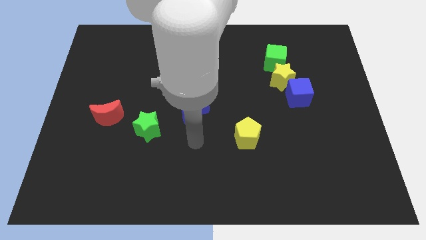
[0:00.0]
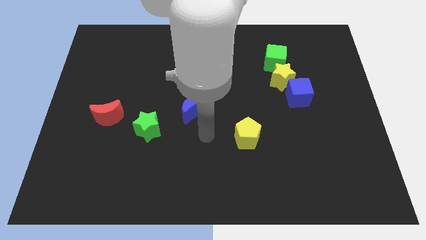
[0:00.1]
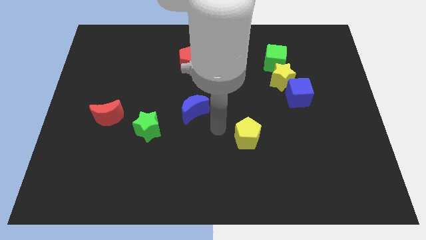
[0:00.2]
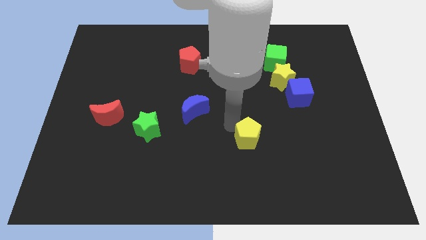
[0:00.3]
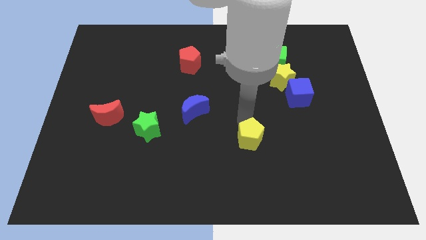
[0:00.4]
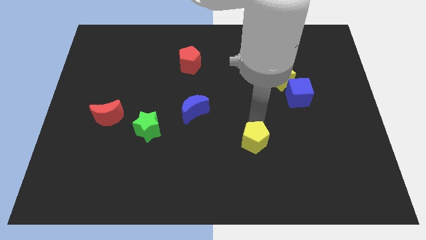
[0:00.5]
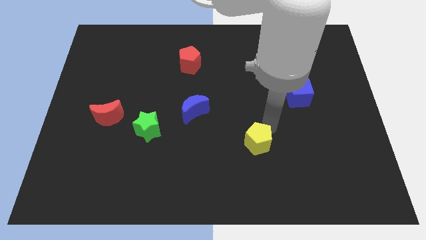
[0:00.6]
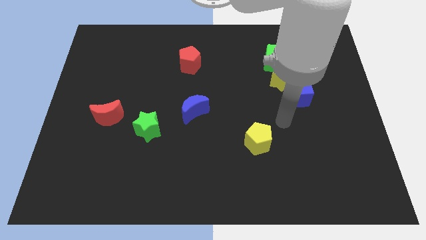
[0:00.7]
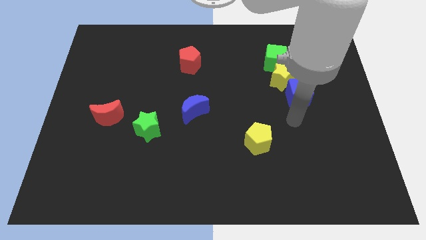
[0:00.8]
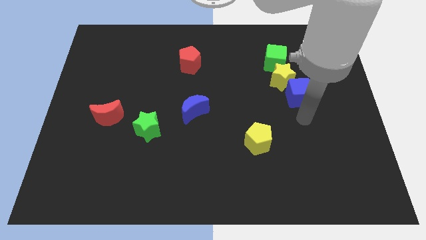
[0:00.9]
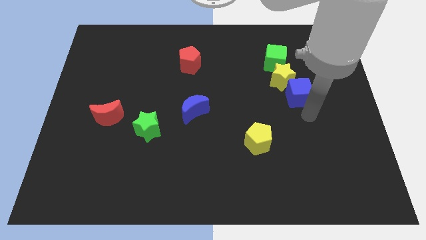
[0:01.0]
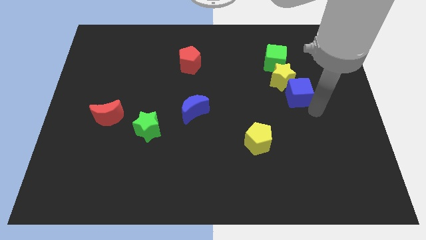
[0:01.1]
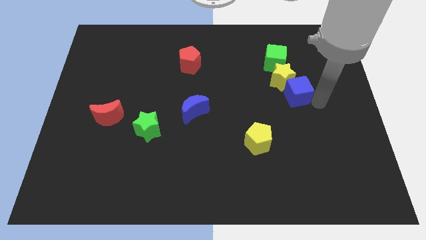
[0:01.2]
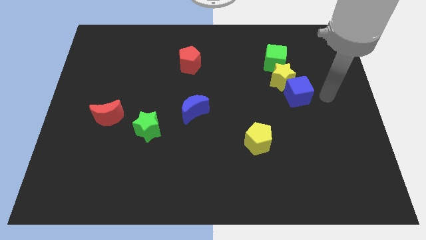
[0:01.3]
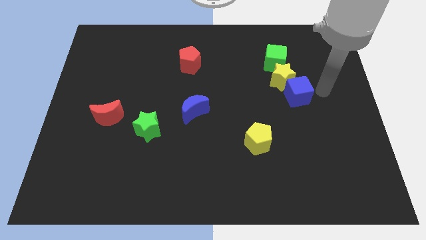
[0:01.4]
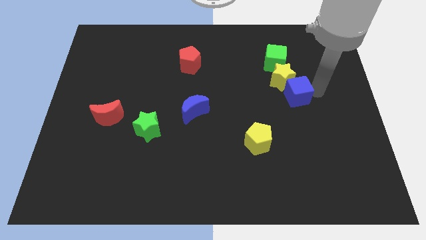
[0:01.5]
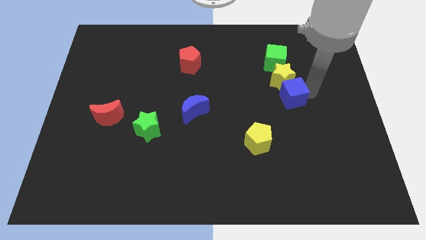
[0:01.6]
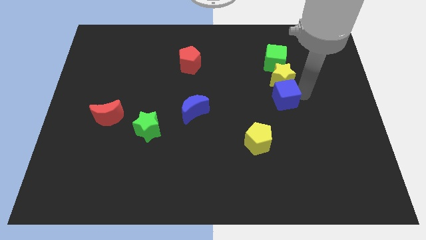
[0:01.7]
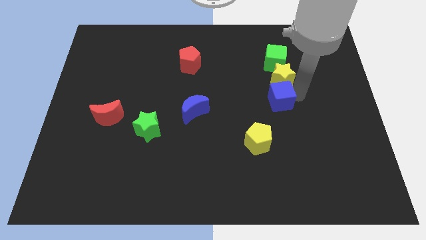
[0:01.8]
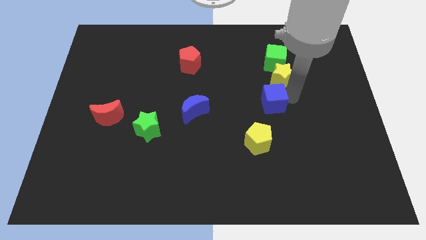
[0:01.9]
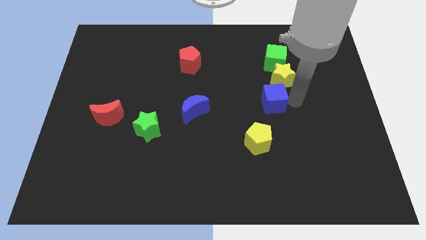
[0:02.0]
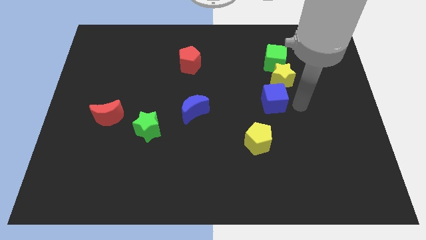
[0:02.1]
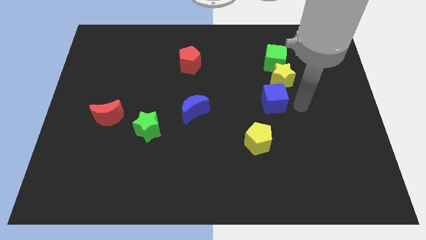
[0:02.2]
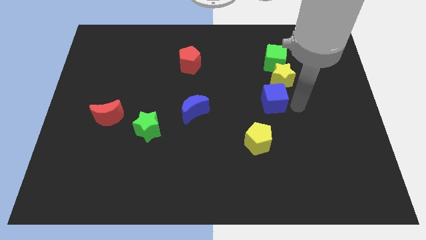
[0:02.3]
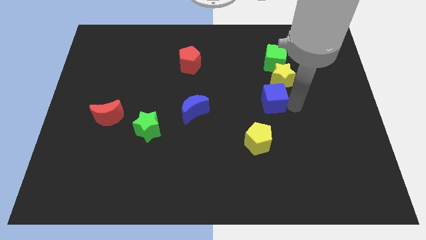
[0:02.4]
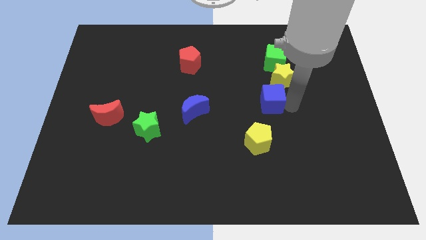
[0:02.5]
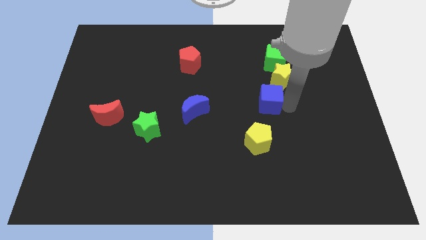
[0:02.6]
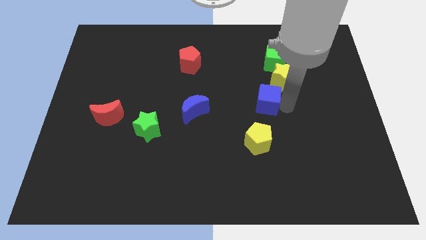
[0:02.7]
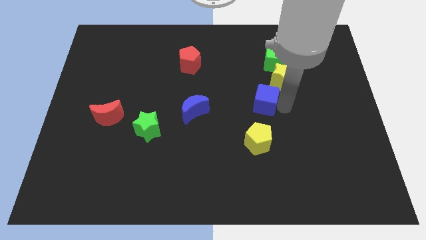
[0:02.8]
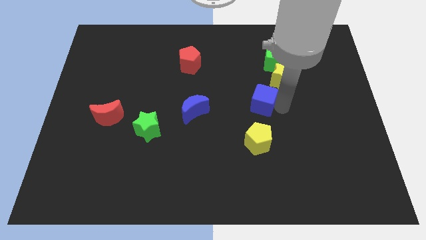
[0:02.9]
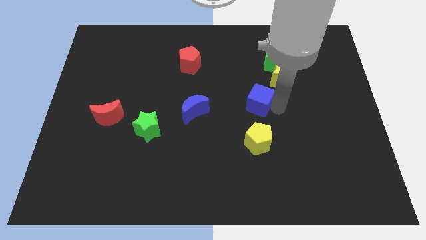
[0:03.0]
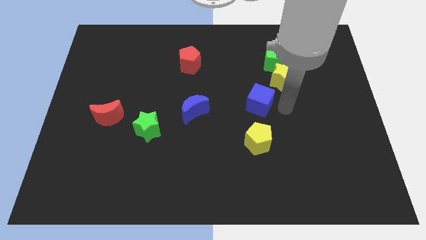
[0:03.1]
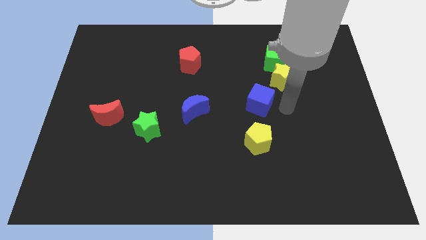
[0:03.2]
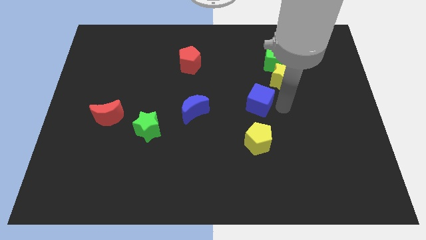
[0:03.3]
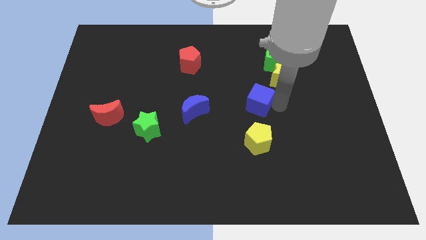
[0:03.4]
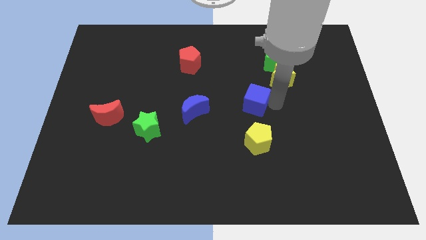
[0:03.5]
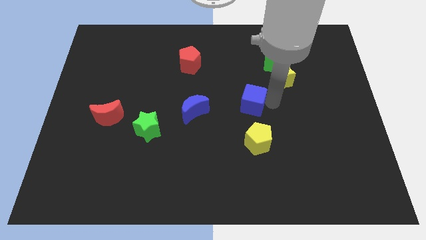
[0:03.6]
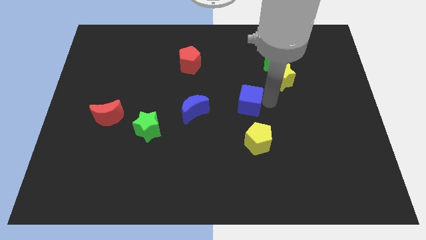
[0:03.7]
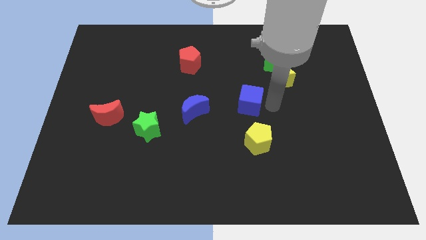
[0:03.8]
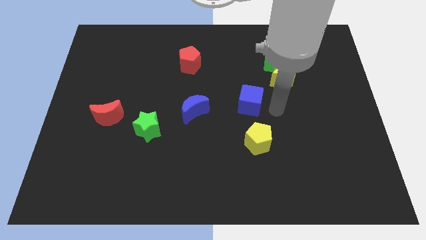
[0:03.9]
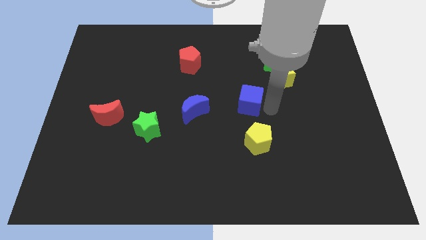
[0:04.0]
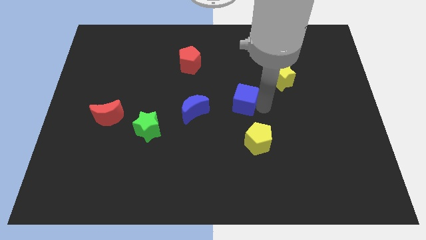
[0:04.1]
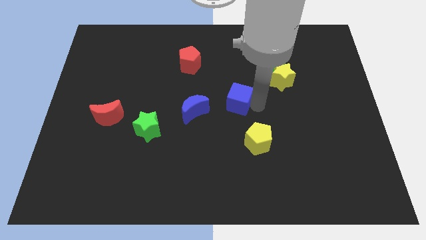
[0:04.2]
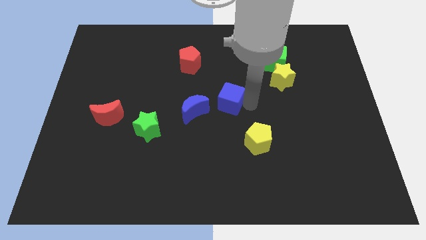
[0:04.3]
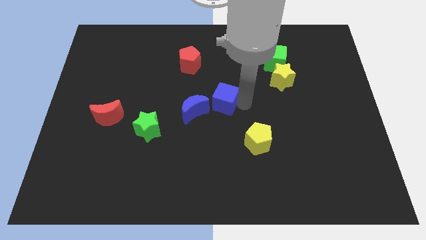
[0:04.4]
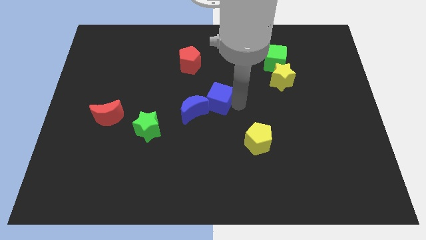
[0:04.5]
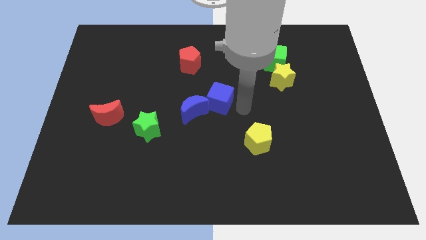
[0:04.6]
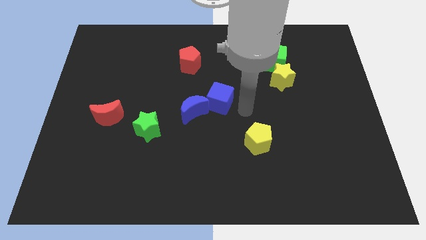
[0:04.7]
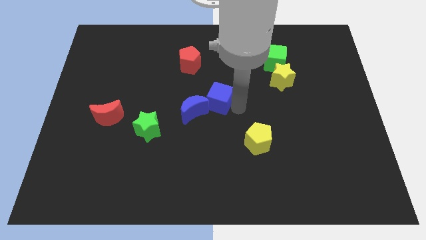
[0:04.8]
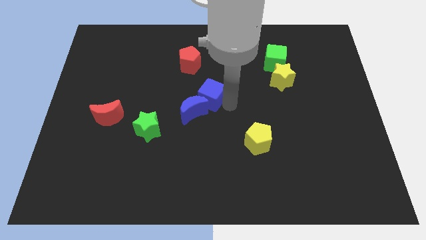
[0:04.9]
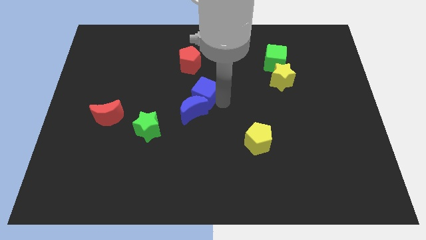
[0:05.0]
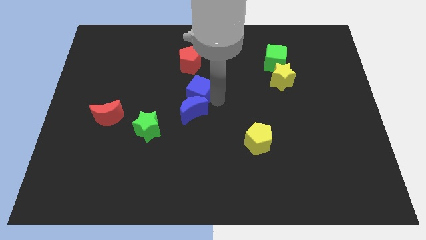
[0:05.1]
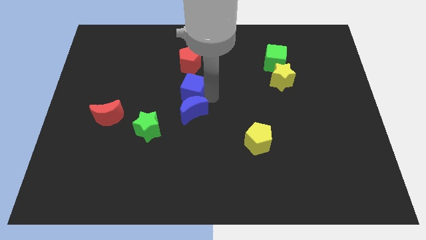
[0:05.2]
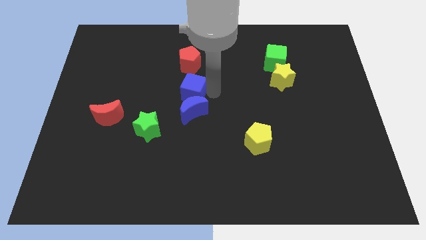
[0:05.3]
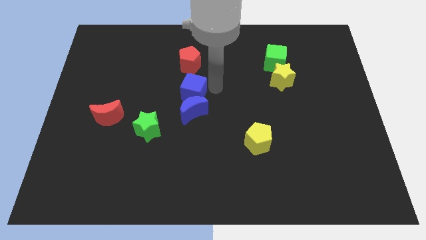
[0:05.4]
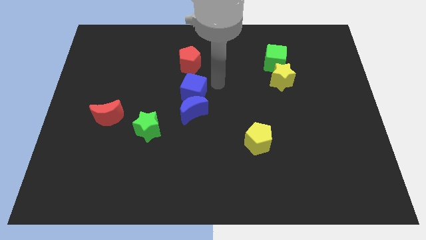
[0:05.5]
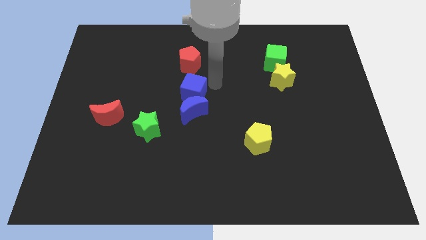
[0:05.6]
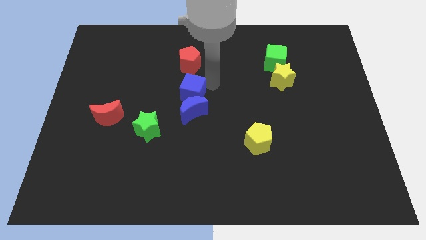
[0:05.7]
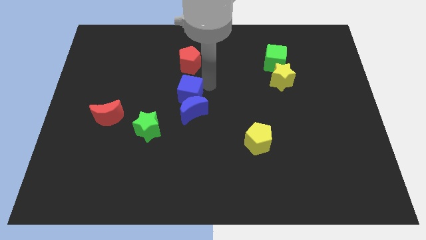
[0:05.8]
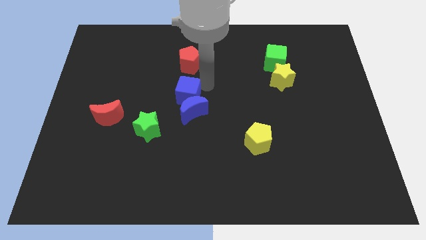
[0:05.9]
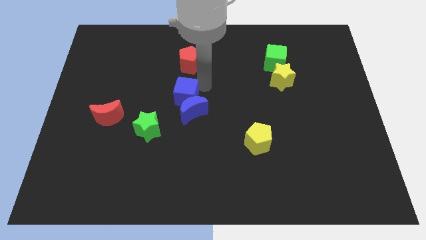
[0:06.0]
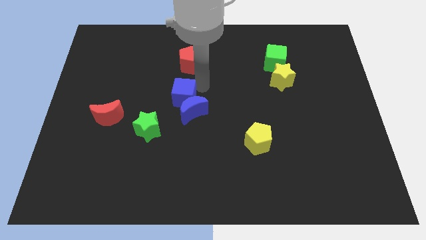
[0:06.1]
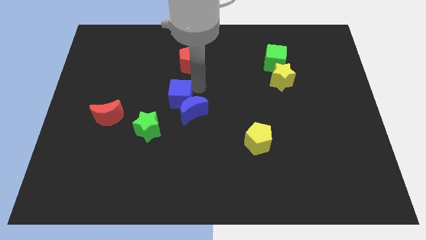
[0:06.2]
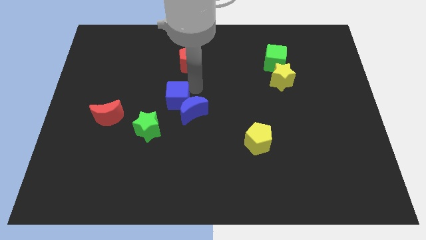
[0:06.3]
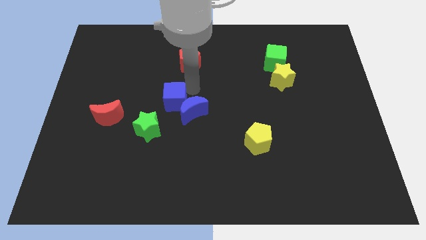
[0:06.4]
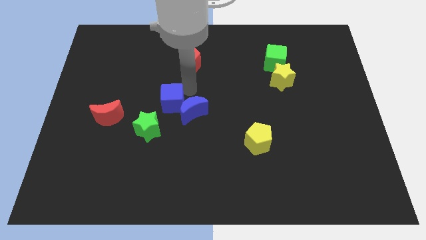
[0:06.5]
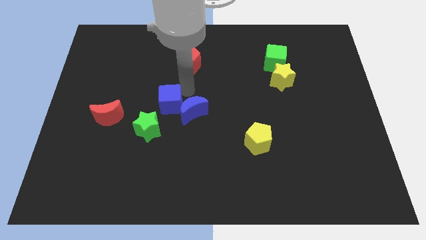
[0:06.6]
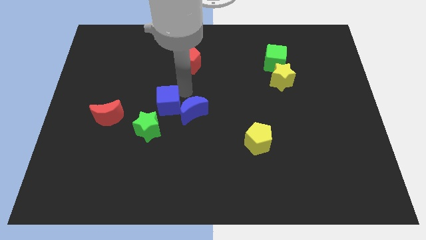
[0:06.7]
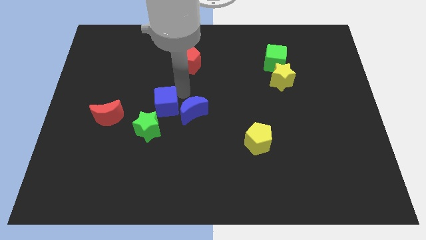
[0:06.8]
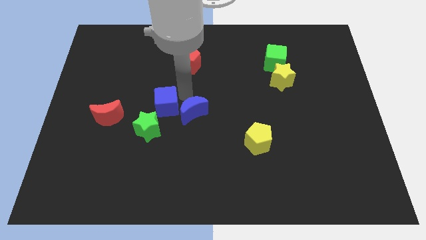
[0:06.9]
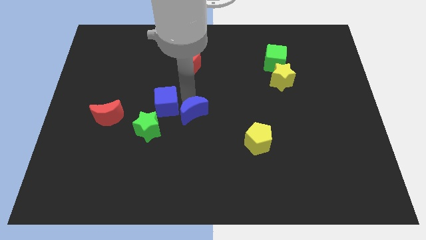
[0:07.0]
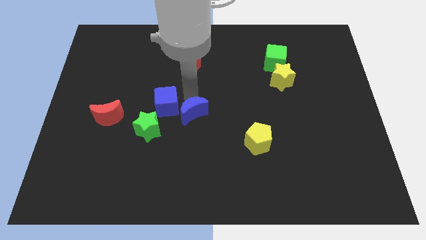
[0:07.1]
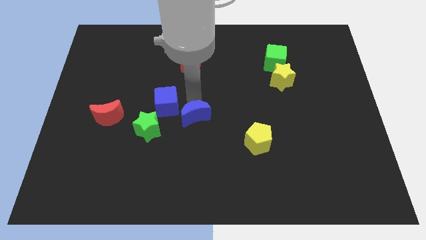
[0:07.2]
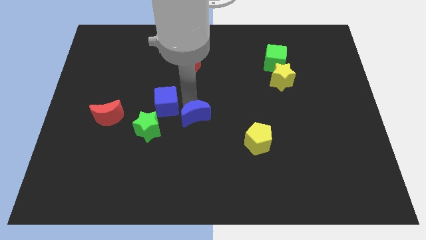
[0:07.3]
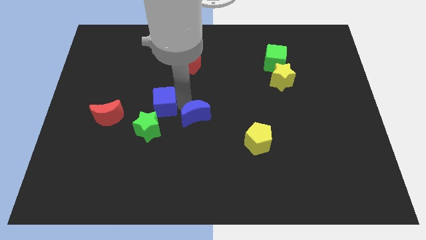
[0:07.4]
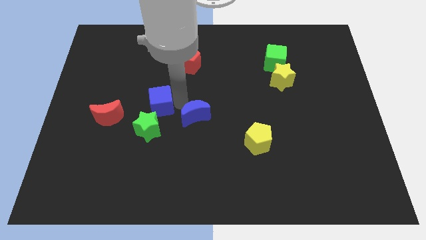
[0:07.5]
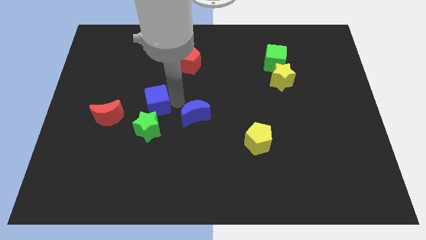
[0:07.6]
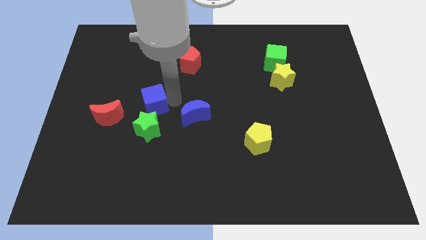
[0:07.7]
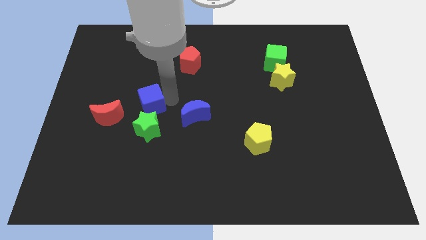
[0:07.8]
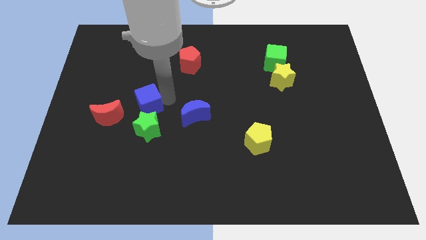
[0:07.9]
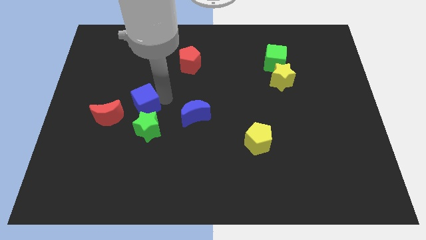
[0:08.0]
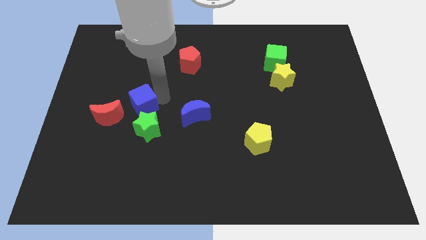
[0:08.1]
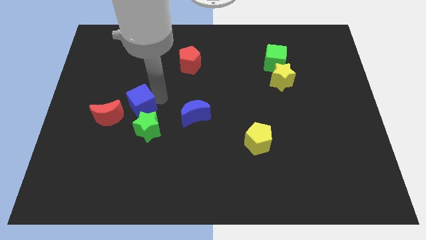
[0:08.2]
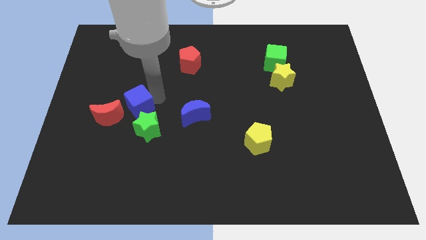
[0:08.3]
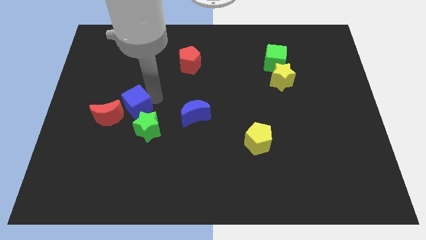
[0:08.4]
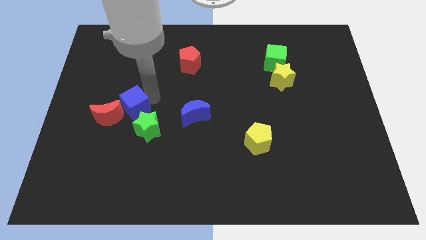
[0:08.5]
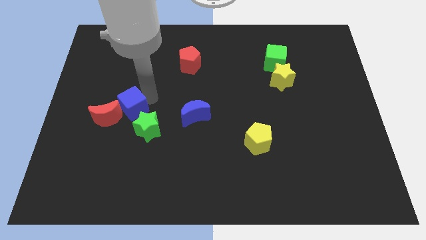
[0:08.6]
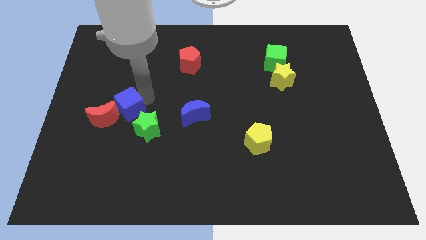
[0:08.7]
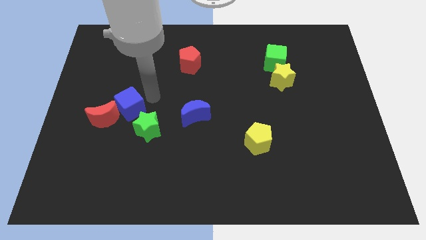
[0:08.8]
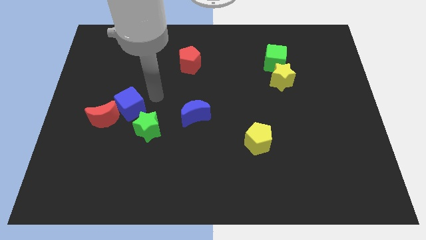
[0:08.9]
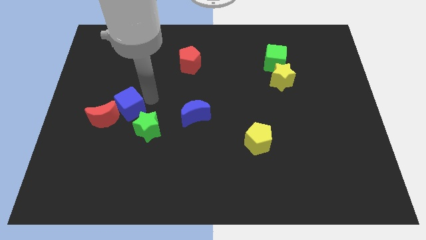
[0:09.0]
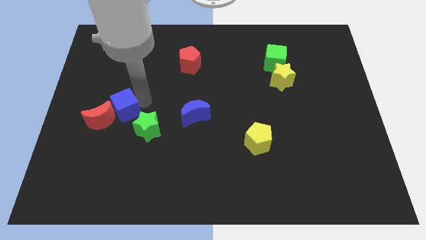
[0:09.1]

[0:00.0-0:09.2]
push the blue cube next to the red moon
